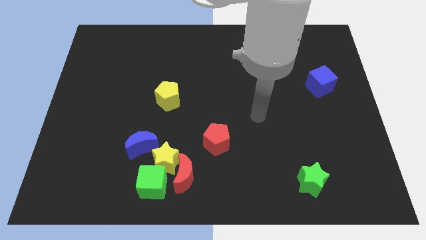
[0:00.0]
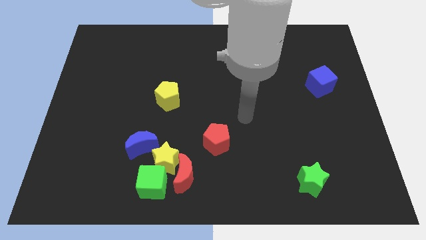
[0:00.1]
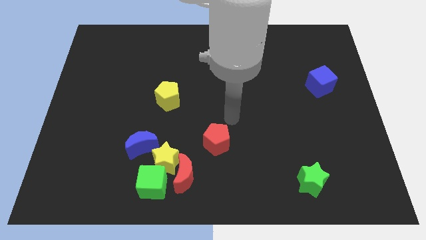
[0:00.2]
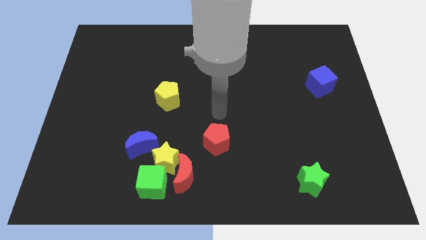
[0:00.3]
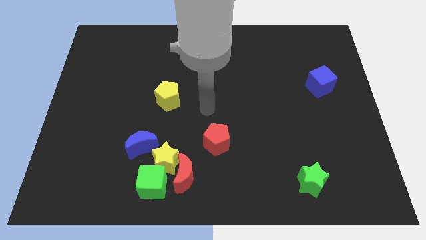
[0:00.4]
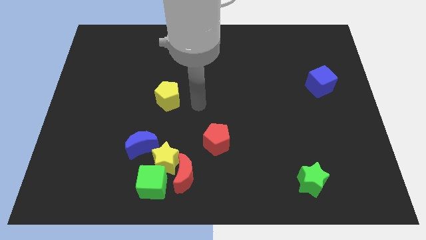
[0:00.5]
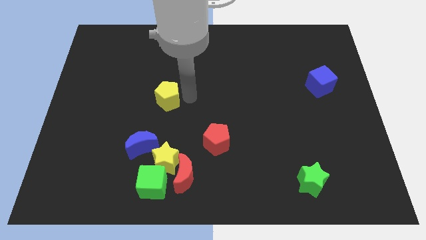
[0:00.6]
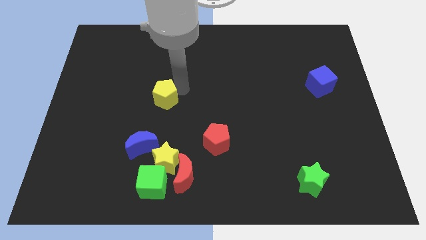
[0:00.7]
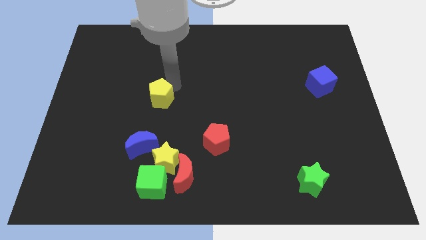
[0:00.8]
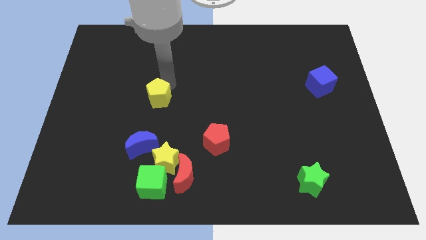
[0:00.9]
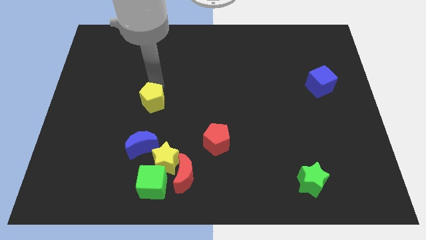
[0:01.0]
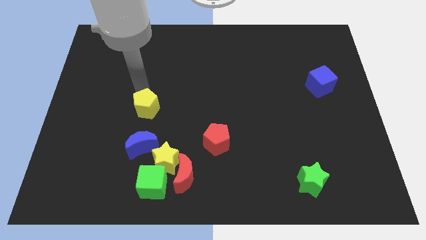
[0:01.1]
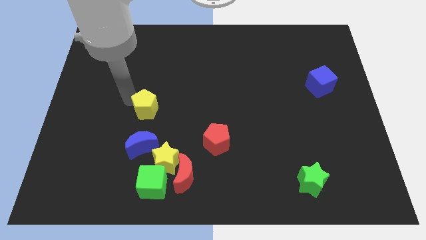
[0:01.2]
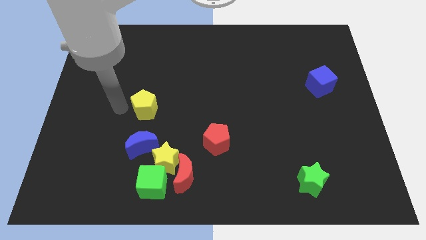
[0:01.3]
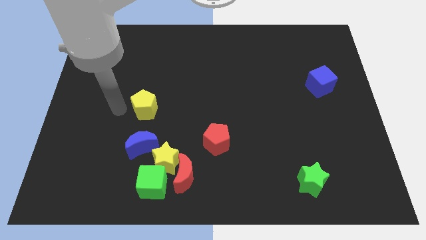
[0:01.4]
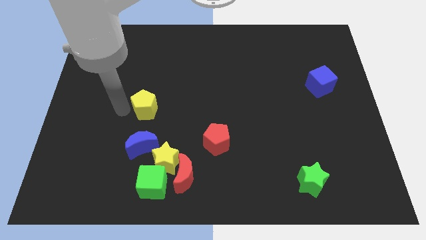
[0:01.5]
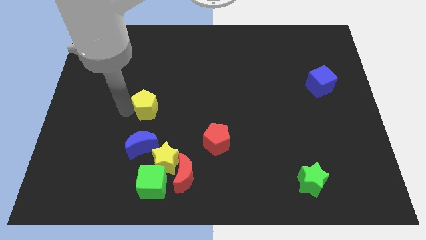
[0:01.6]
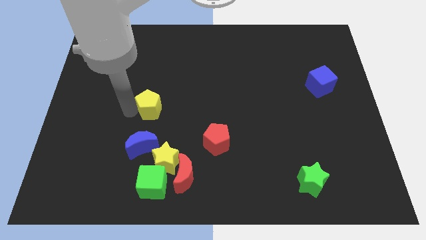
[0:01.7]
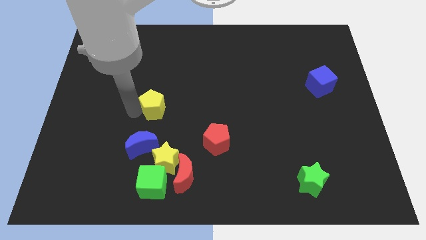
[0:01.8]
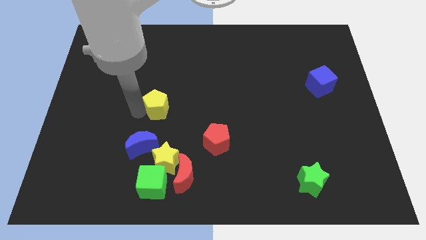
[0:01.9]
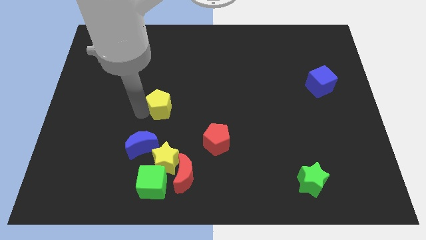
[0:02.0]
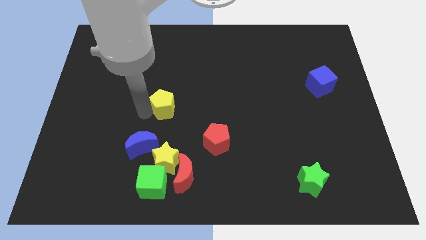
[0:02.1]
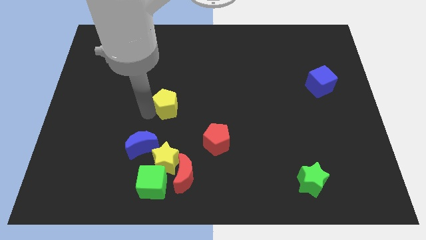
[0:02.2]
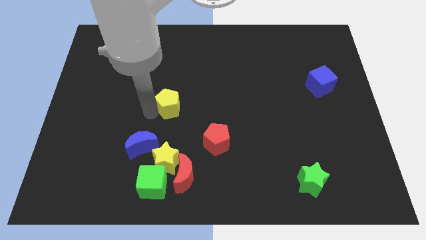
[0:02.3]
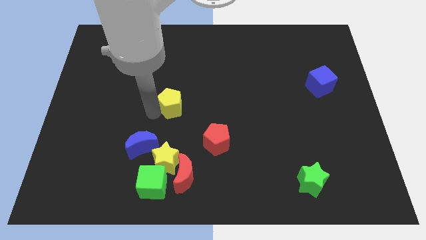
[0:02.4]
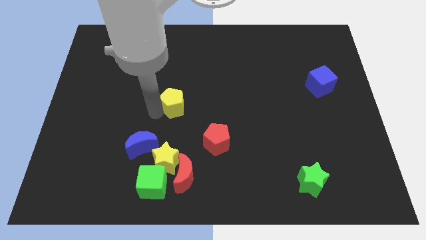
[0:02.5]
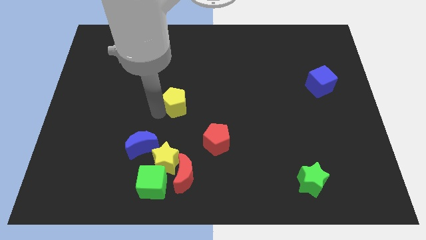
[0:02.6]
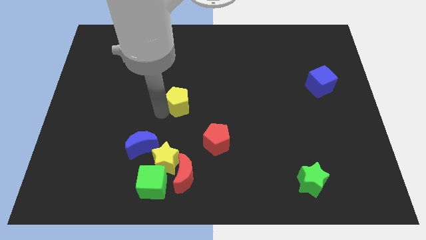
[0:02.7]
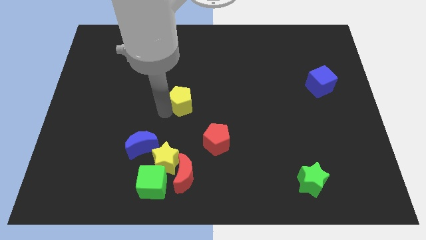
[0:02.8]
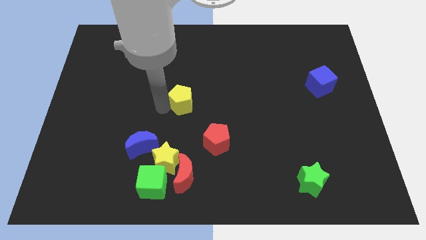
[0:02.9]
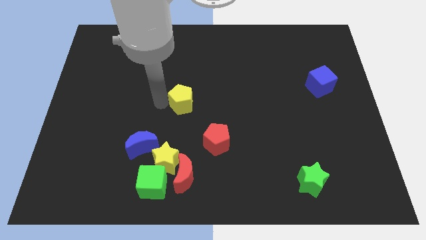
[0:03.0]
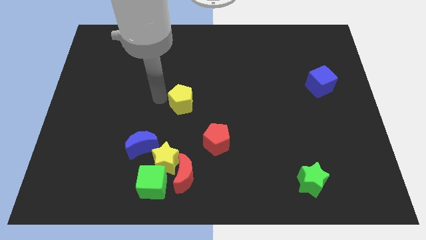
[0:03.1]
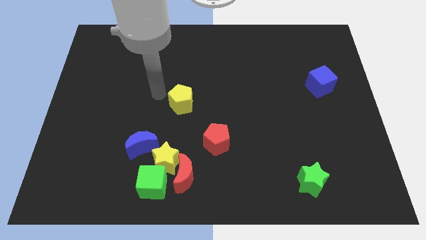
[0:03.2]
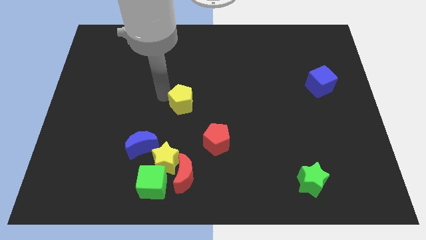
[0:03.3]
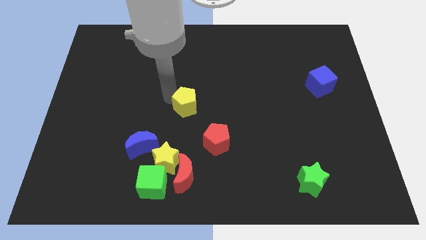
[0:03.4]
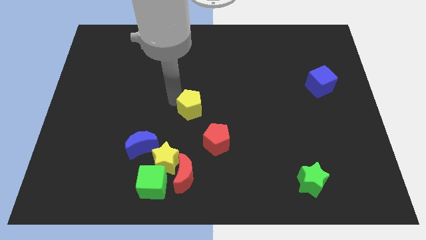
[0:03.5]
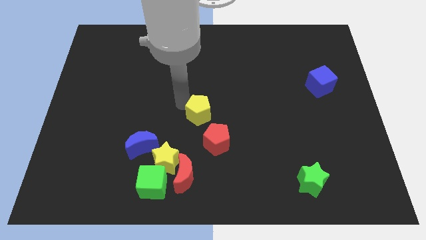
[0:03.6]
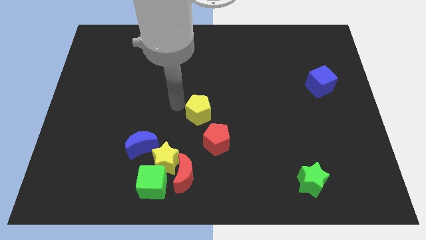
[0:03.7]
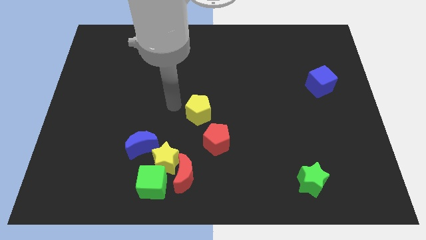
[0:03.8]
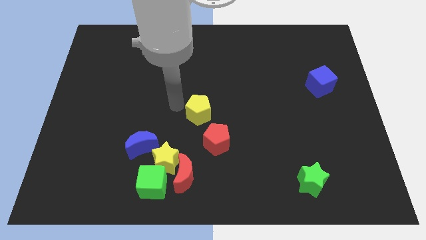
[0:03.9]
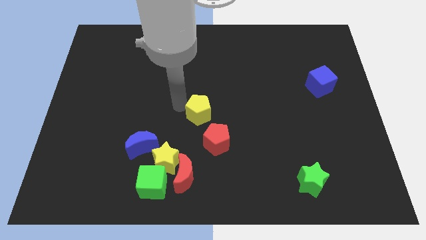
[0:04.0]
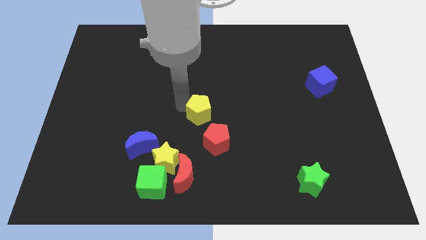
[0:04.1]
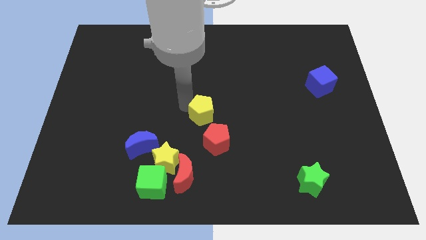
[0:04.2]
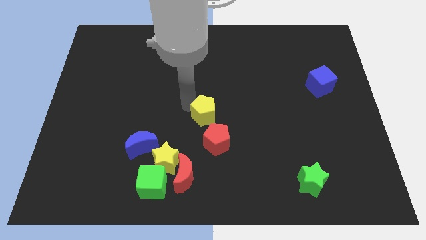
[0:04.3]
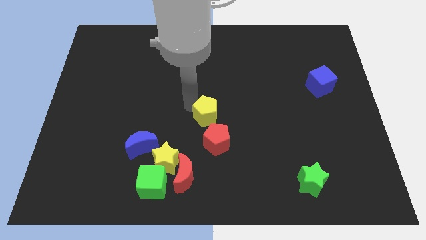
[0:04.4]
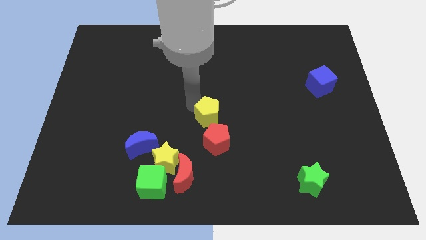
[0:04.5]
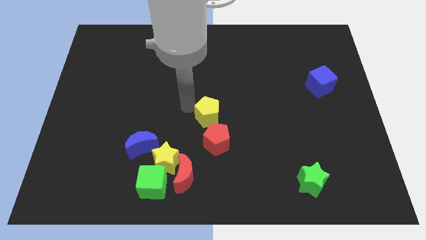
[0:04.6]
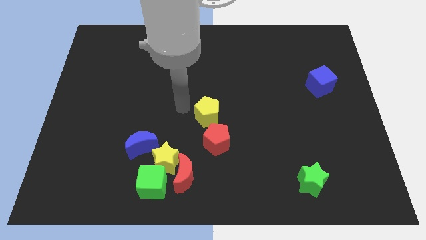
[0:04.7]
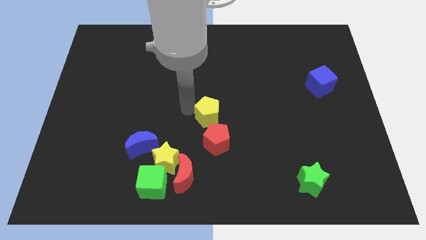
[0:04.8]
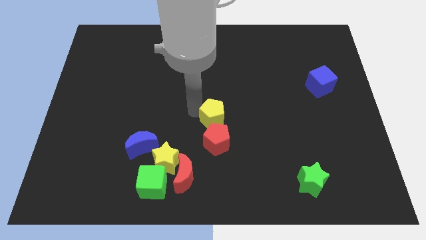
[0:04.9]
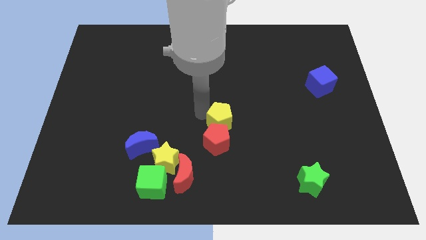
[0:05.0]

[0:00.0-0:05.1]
slide the yellow pentagon to the top right of the red pentagon

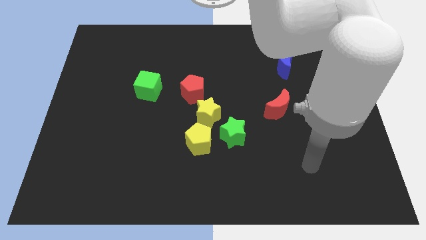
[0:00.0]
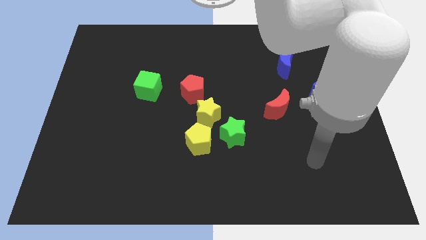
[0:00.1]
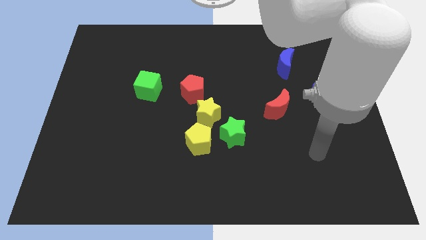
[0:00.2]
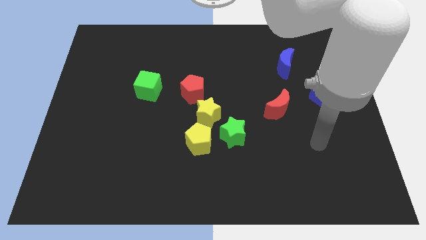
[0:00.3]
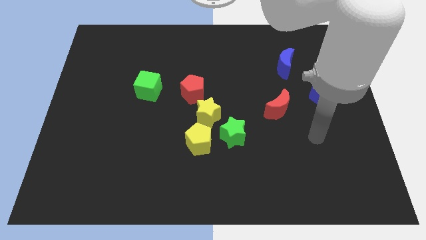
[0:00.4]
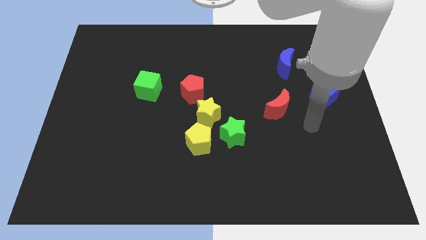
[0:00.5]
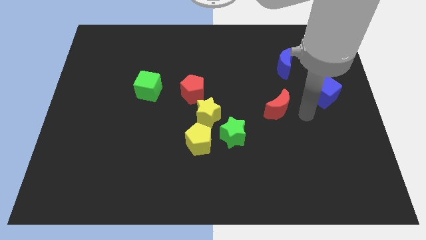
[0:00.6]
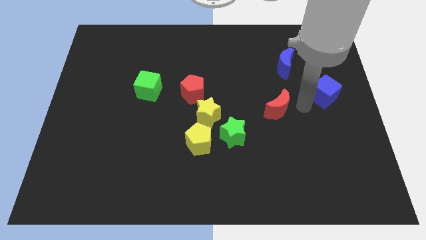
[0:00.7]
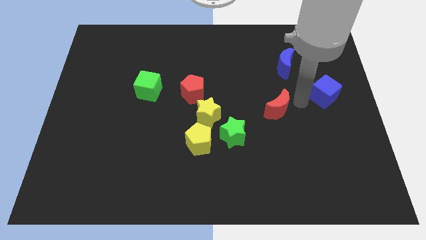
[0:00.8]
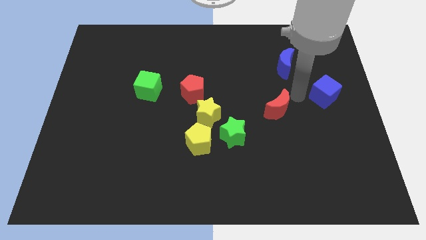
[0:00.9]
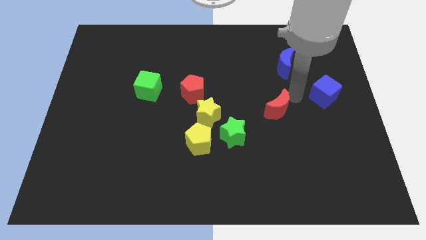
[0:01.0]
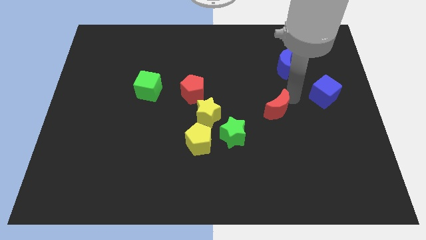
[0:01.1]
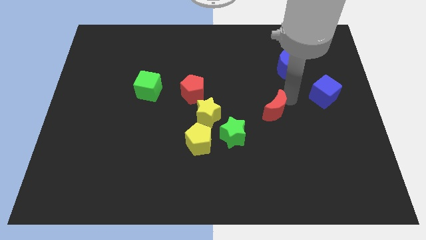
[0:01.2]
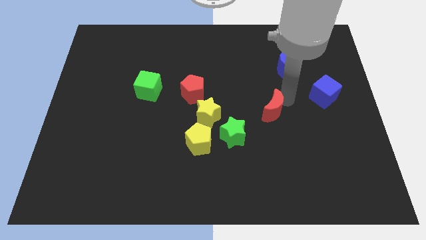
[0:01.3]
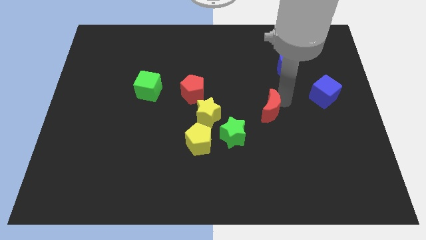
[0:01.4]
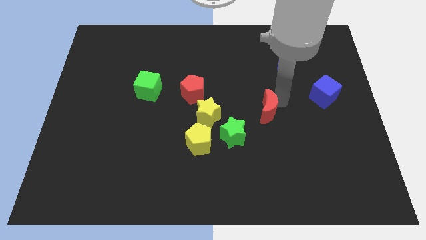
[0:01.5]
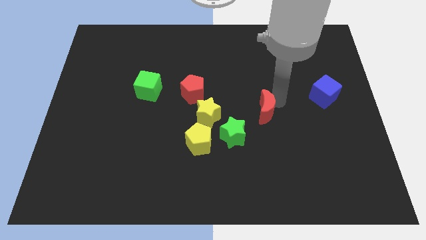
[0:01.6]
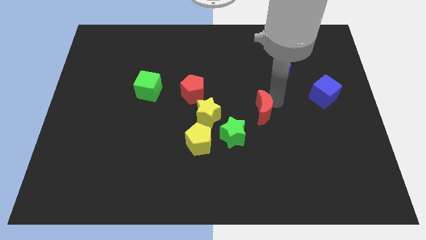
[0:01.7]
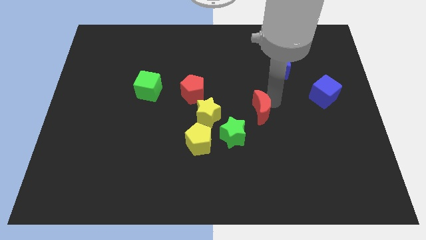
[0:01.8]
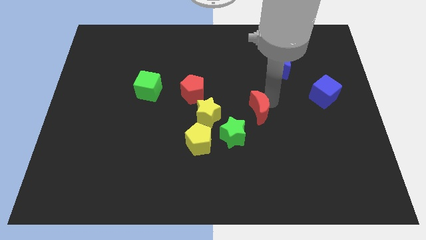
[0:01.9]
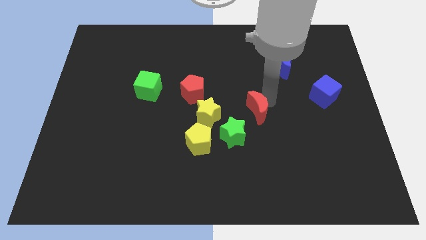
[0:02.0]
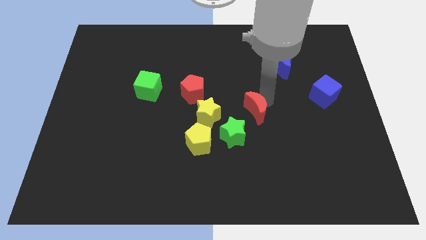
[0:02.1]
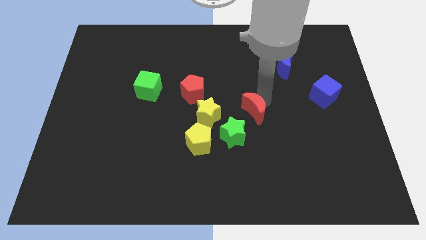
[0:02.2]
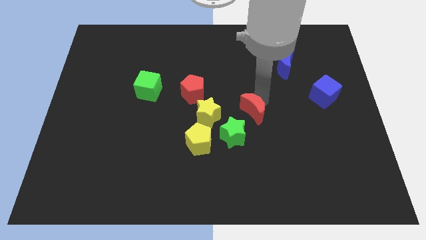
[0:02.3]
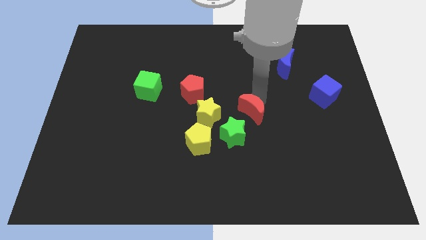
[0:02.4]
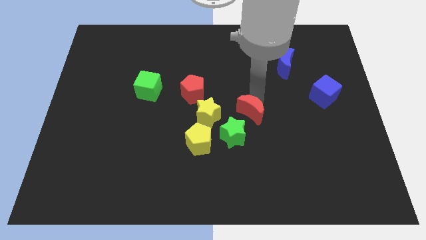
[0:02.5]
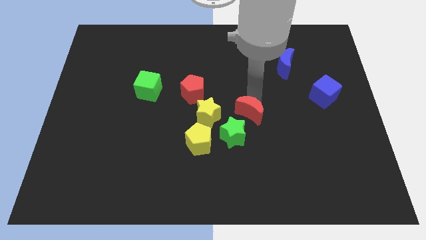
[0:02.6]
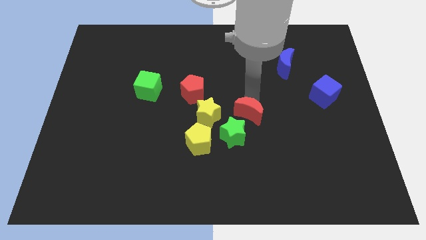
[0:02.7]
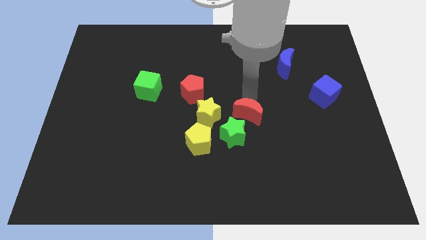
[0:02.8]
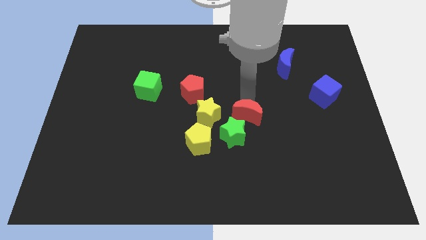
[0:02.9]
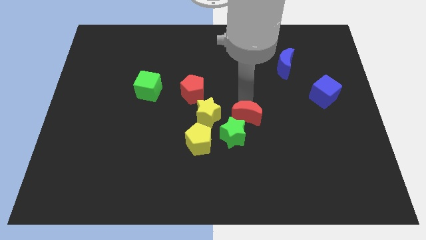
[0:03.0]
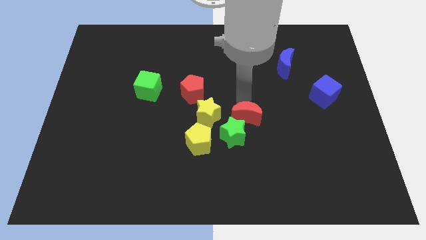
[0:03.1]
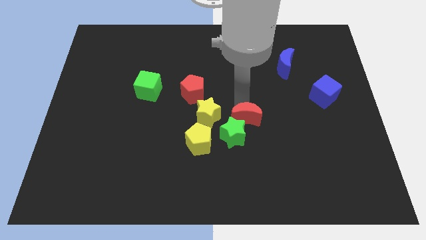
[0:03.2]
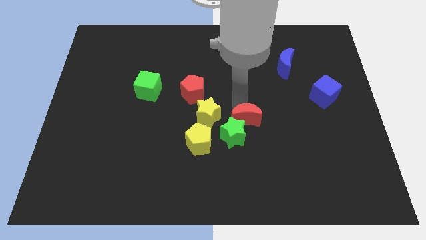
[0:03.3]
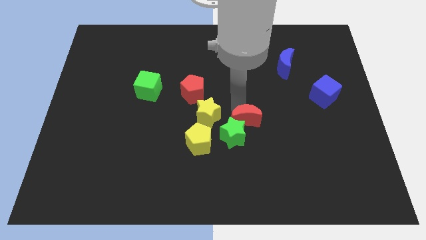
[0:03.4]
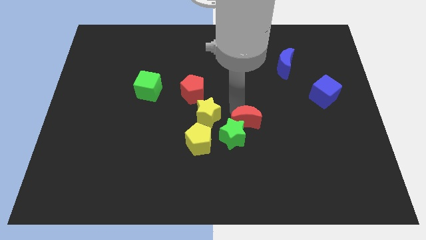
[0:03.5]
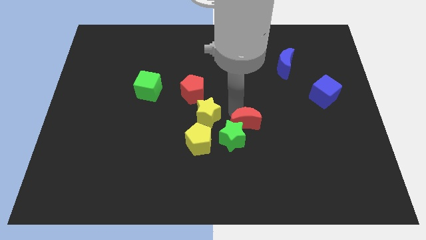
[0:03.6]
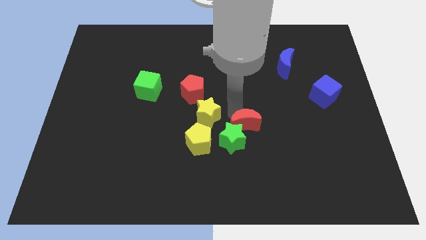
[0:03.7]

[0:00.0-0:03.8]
move the red moon just right of the yellow pentagon
